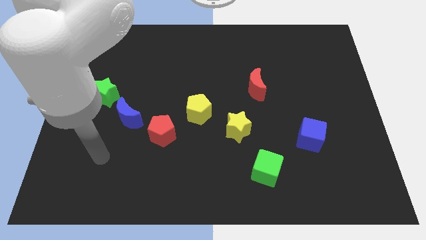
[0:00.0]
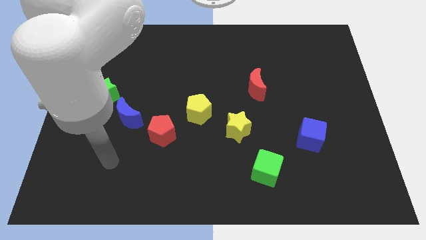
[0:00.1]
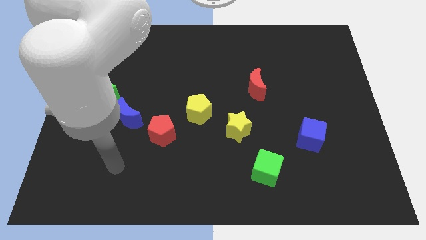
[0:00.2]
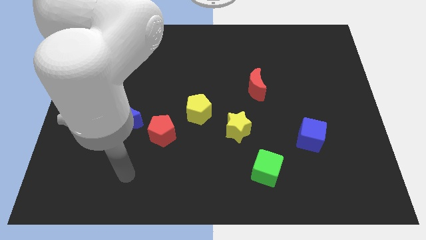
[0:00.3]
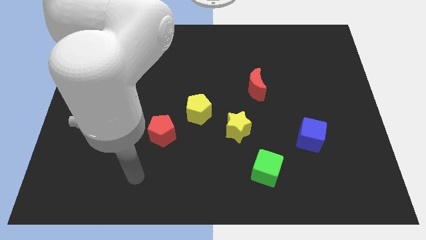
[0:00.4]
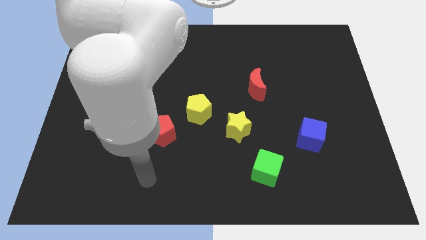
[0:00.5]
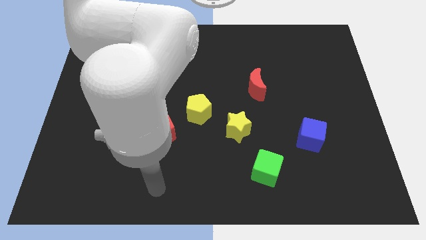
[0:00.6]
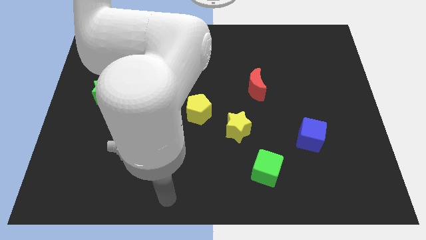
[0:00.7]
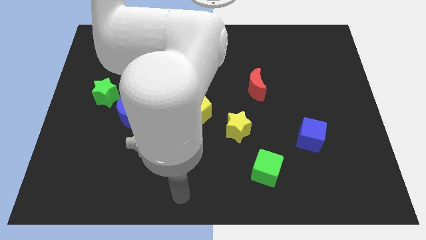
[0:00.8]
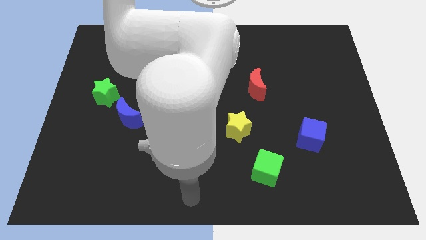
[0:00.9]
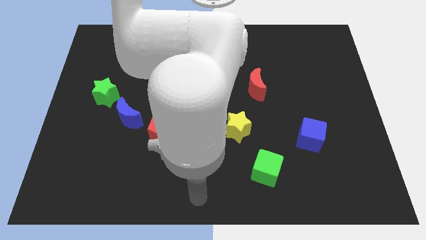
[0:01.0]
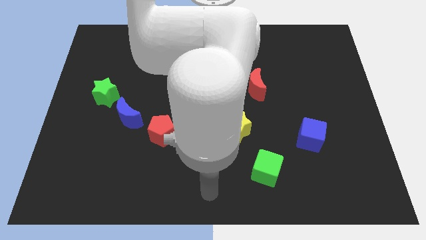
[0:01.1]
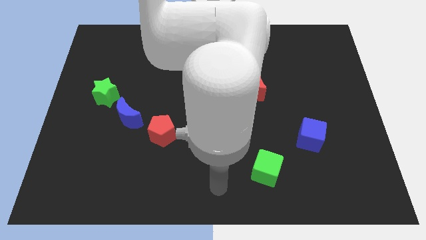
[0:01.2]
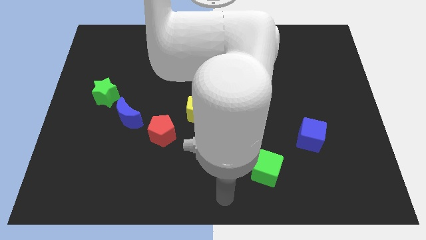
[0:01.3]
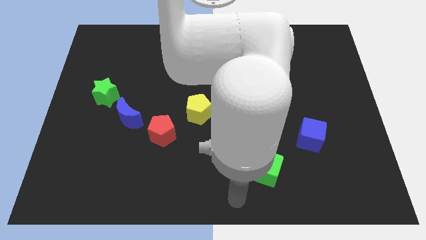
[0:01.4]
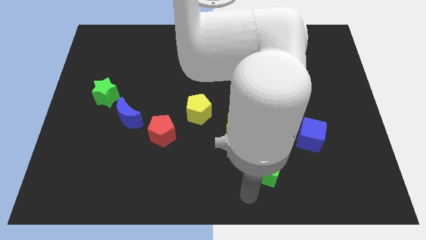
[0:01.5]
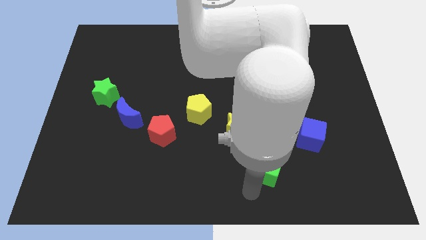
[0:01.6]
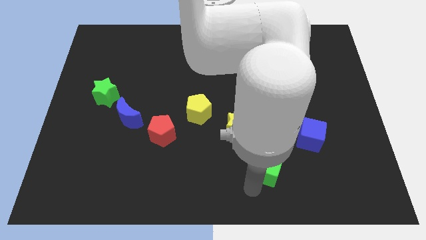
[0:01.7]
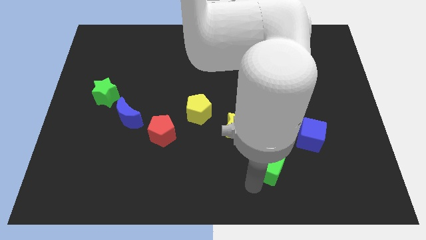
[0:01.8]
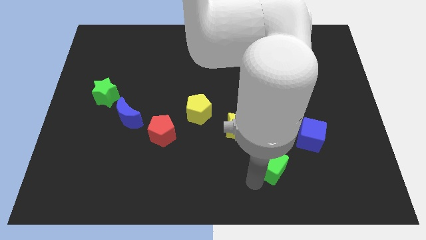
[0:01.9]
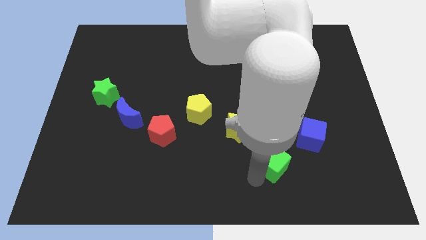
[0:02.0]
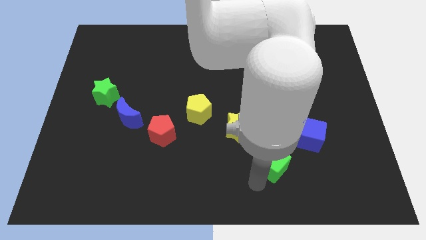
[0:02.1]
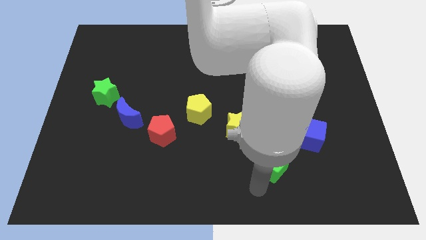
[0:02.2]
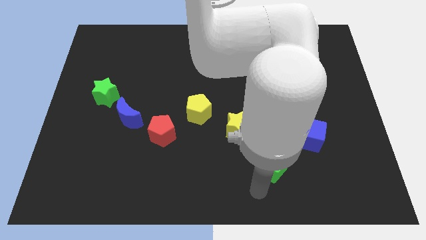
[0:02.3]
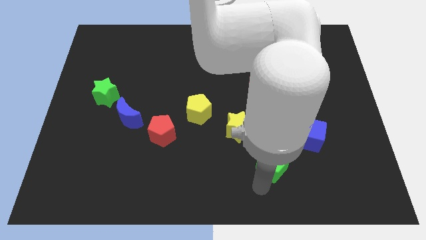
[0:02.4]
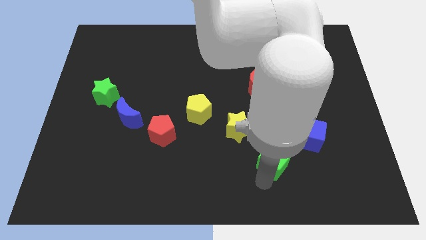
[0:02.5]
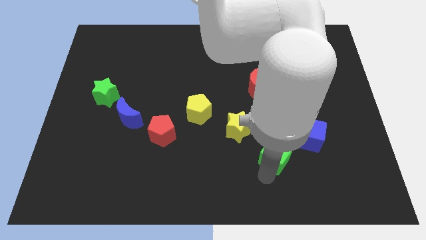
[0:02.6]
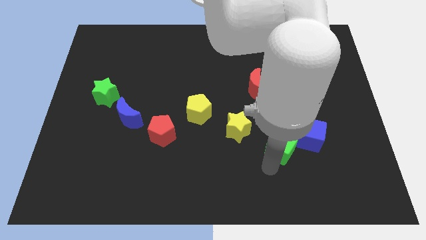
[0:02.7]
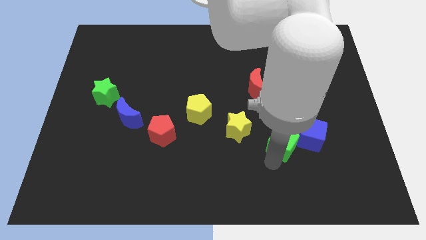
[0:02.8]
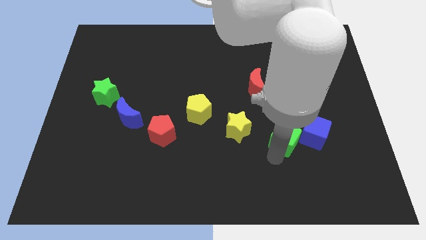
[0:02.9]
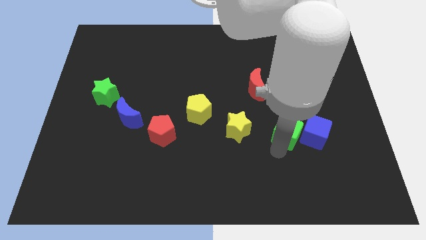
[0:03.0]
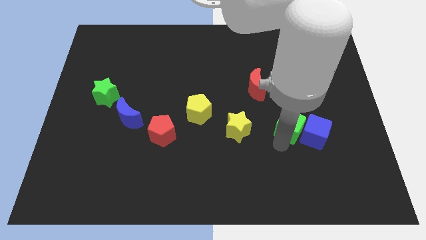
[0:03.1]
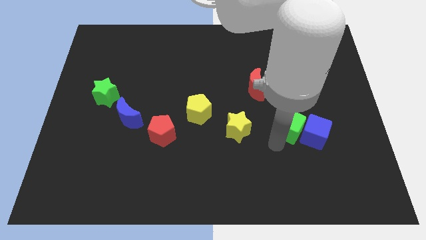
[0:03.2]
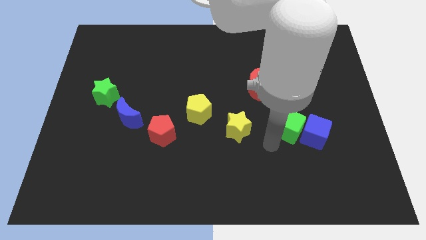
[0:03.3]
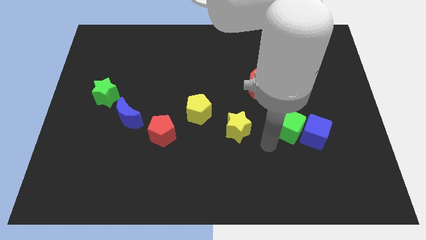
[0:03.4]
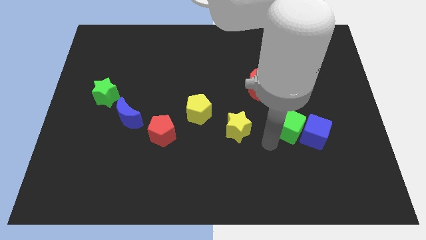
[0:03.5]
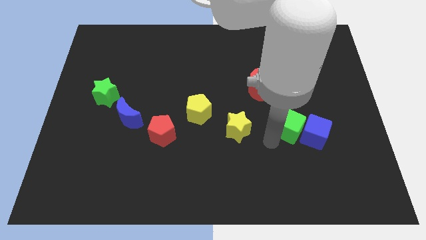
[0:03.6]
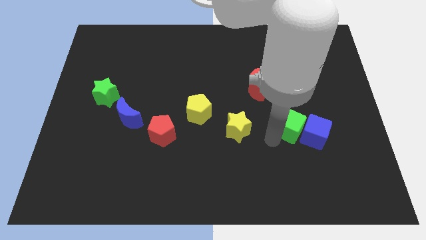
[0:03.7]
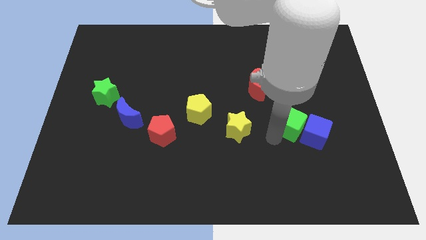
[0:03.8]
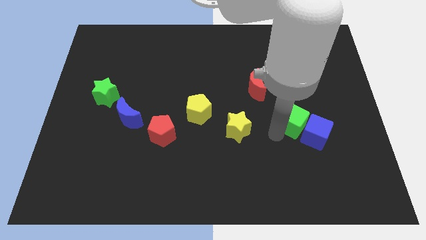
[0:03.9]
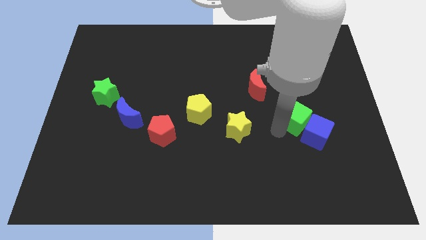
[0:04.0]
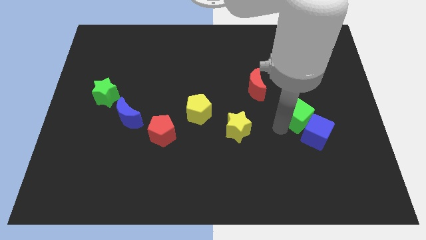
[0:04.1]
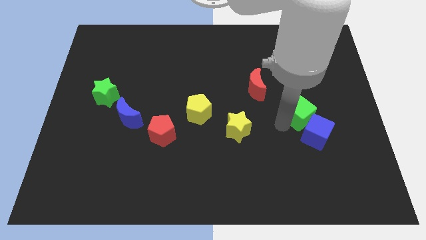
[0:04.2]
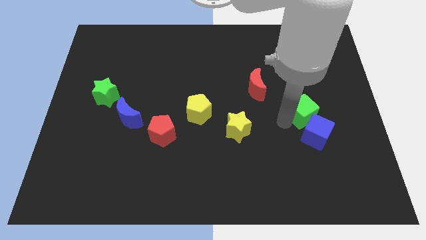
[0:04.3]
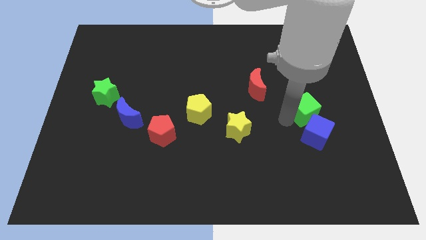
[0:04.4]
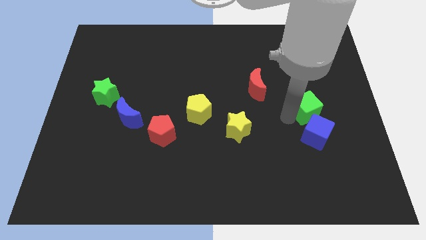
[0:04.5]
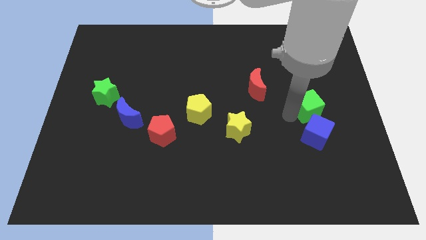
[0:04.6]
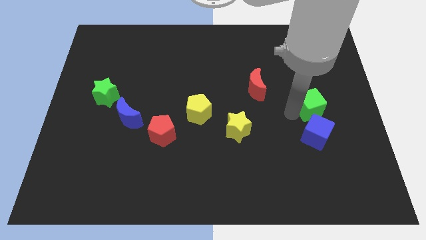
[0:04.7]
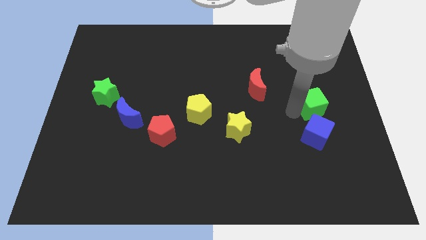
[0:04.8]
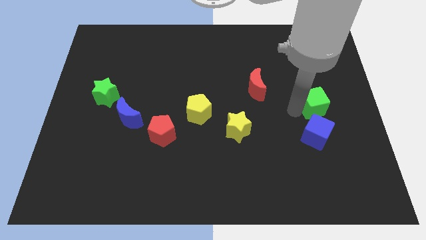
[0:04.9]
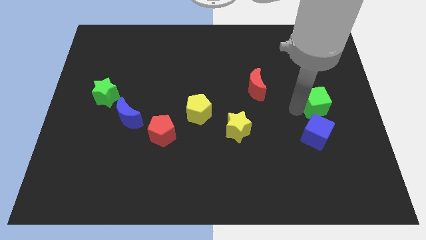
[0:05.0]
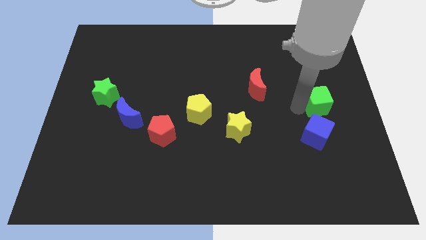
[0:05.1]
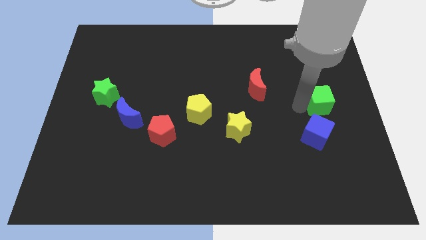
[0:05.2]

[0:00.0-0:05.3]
move the green cube to the right side

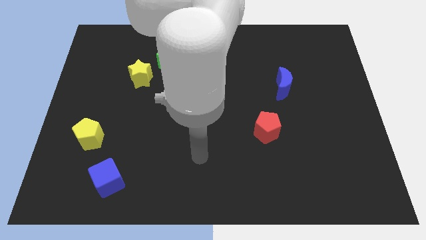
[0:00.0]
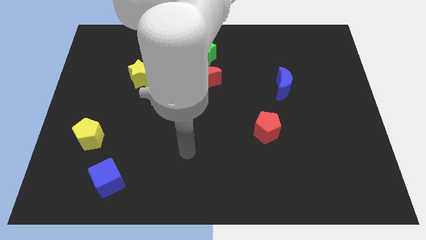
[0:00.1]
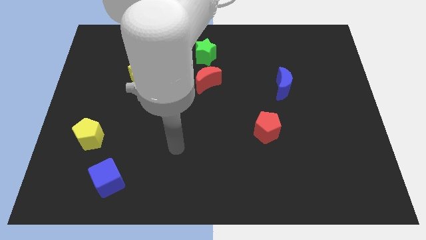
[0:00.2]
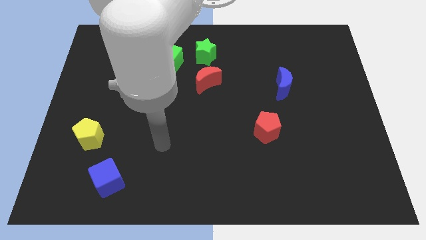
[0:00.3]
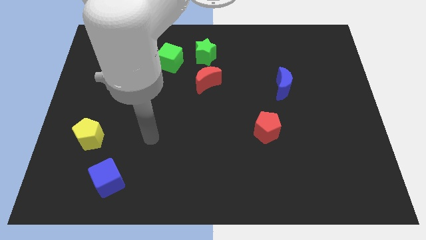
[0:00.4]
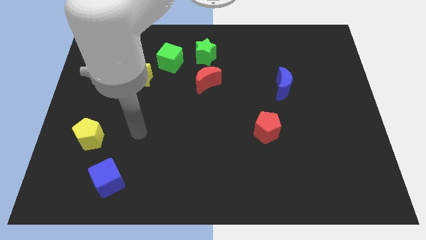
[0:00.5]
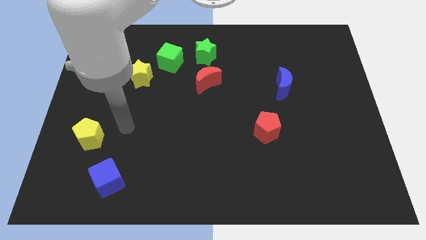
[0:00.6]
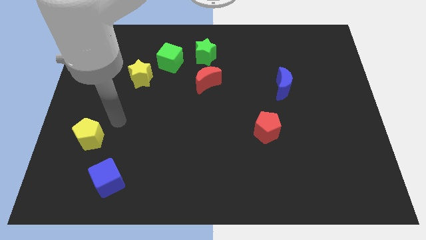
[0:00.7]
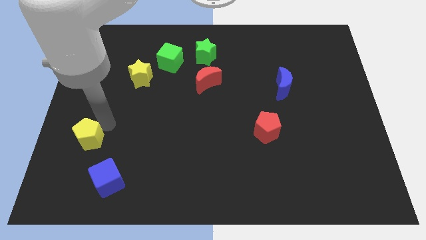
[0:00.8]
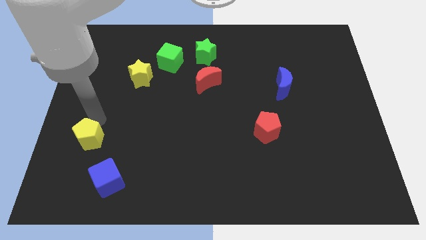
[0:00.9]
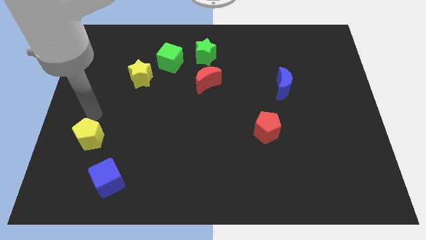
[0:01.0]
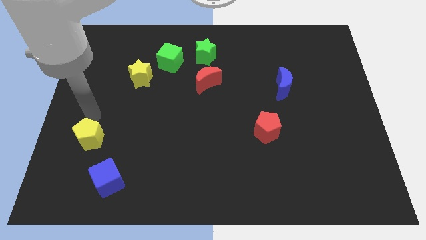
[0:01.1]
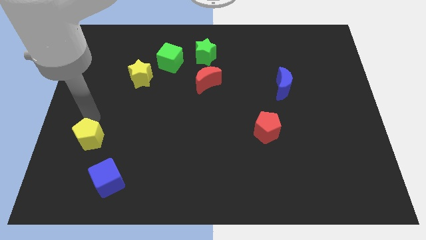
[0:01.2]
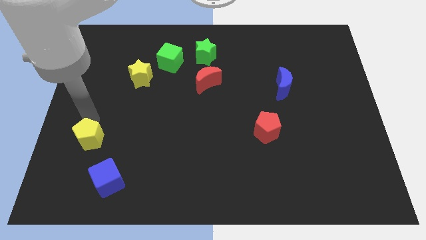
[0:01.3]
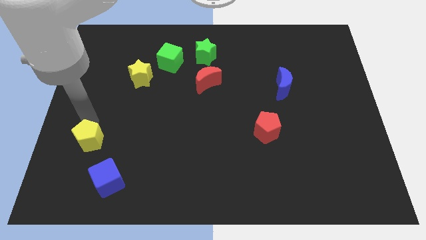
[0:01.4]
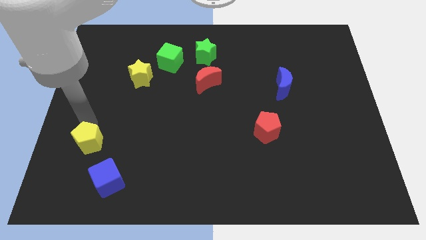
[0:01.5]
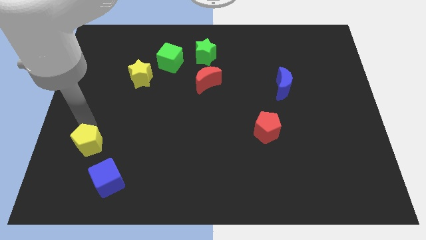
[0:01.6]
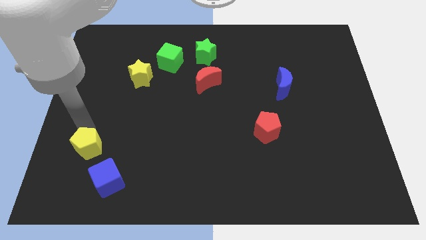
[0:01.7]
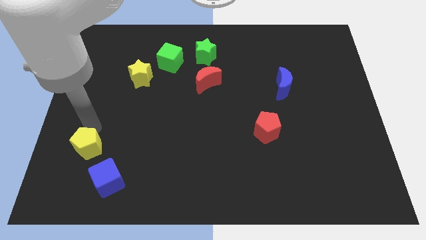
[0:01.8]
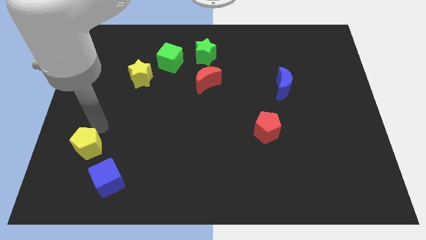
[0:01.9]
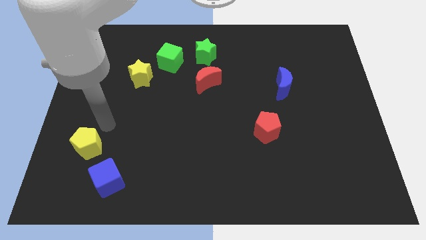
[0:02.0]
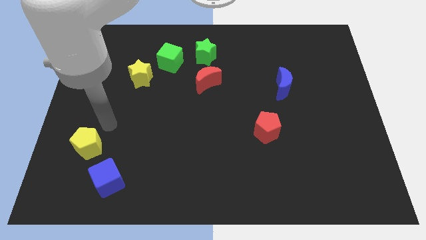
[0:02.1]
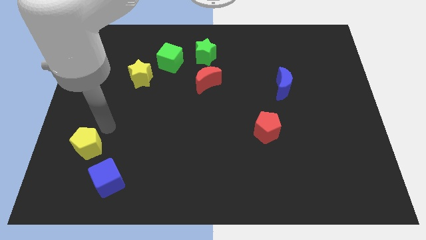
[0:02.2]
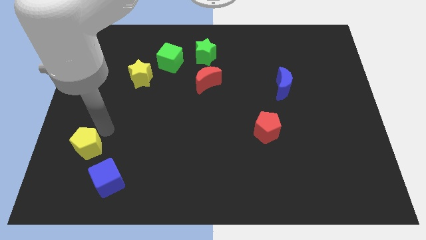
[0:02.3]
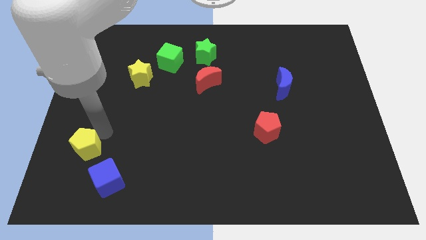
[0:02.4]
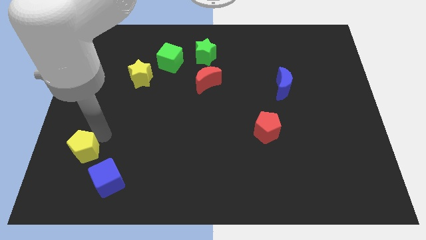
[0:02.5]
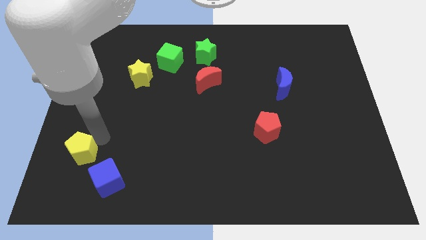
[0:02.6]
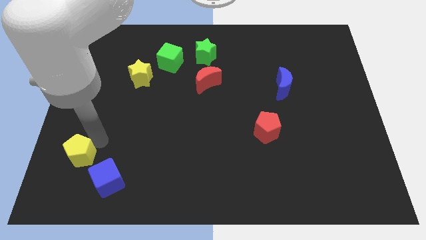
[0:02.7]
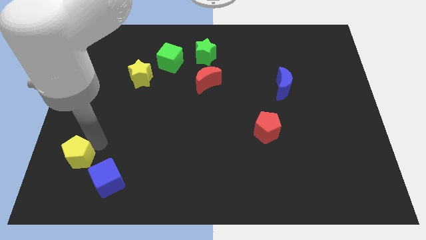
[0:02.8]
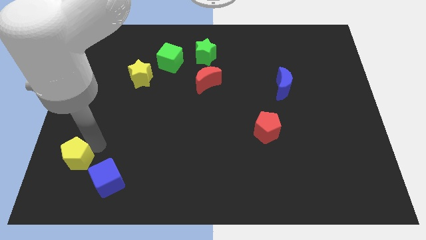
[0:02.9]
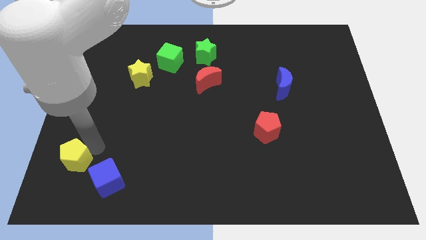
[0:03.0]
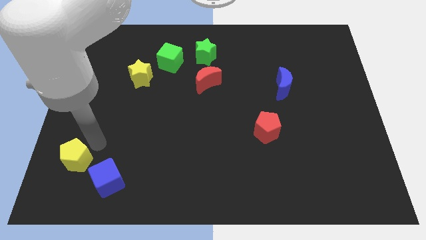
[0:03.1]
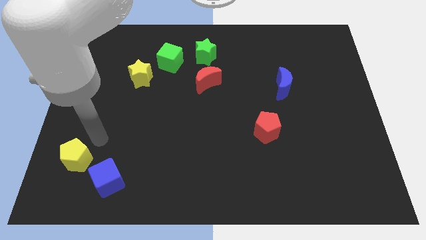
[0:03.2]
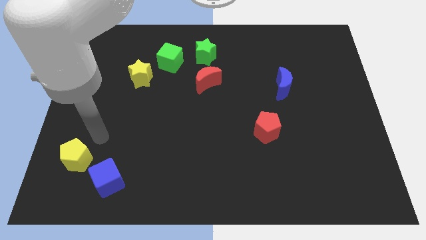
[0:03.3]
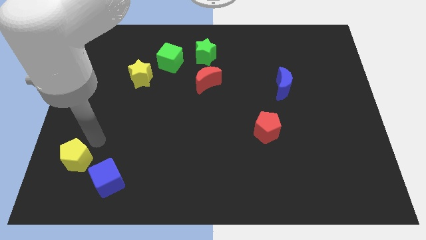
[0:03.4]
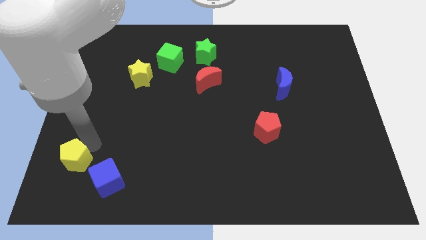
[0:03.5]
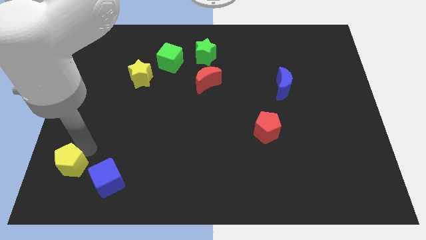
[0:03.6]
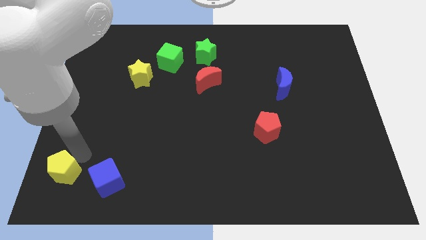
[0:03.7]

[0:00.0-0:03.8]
slide the yellow pentagon to the bottom left of the board
